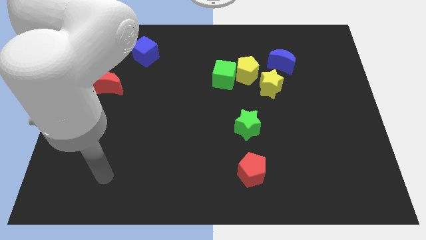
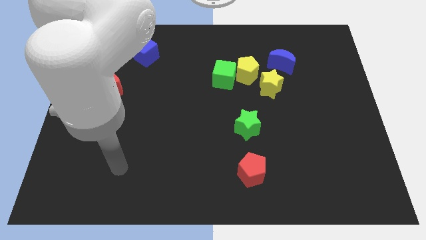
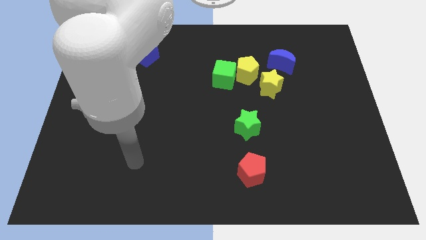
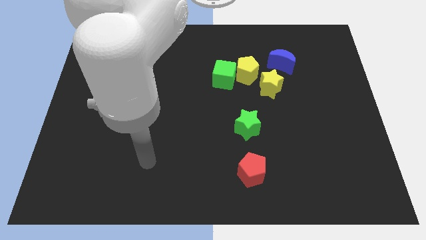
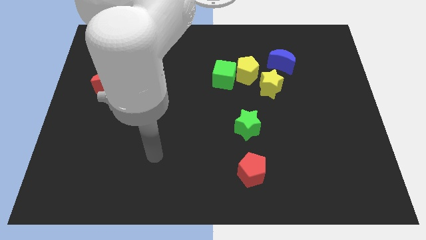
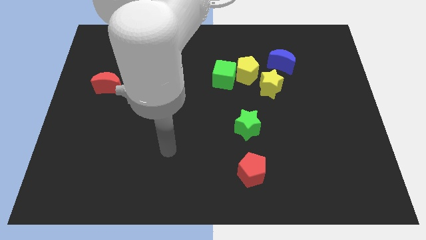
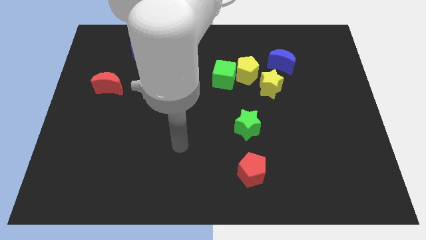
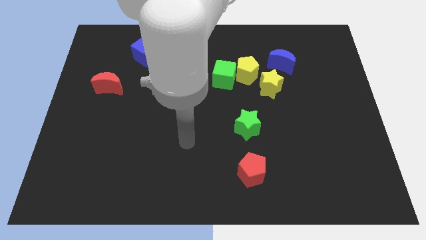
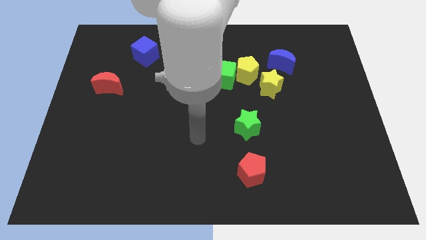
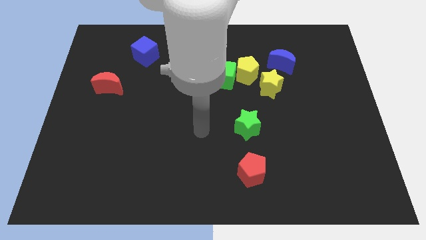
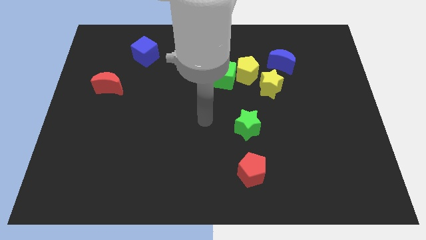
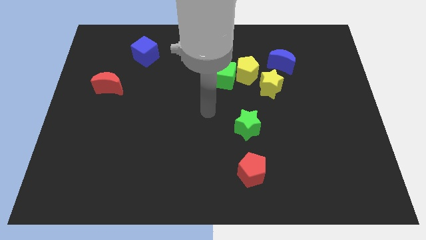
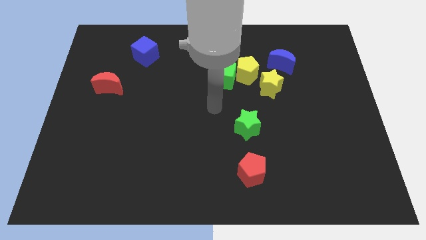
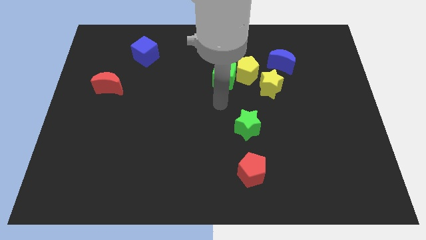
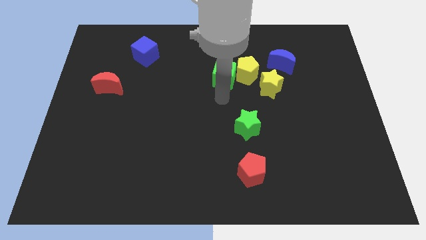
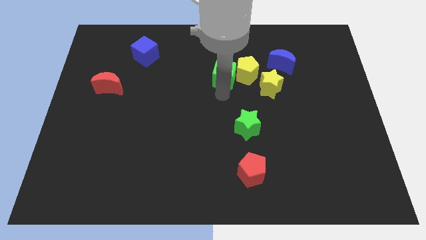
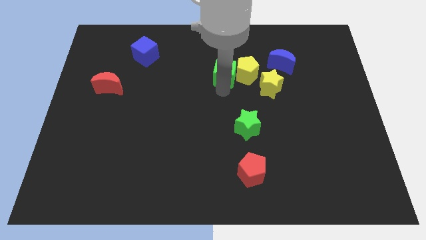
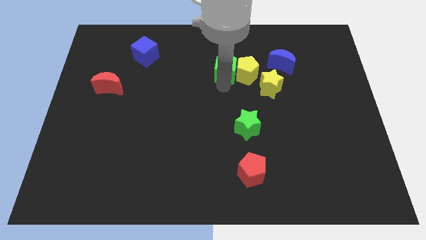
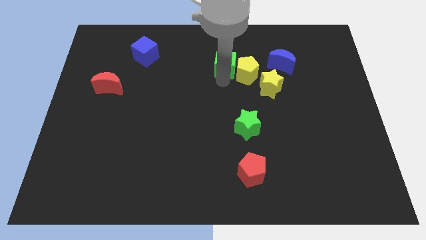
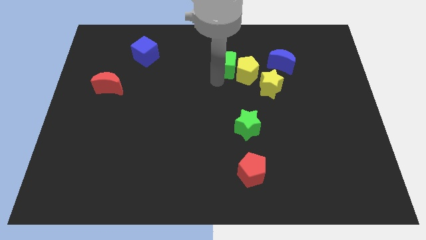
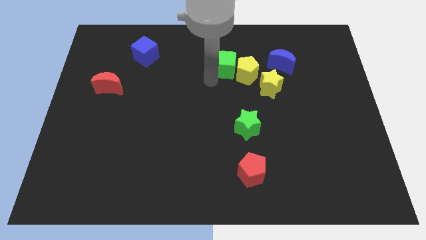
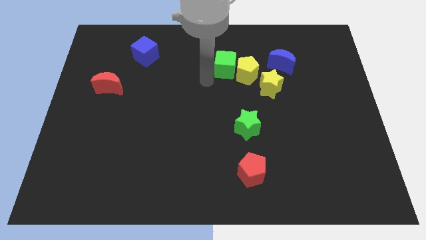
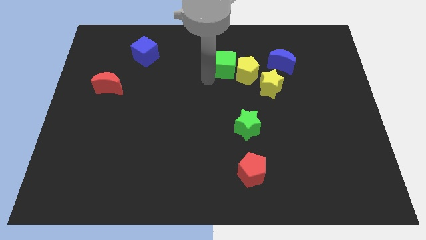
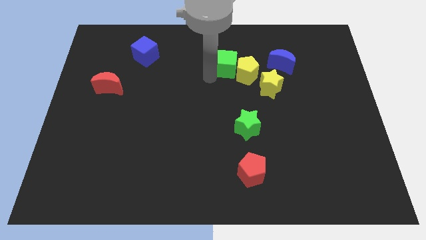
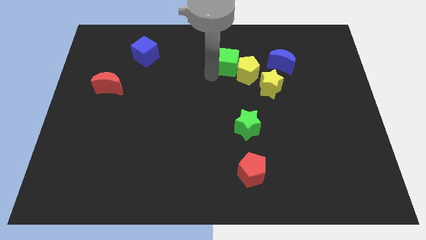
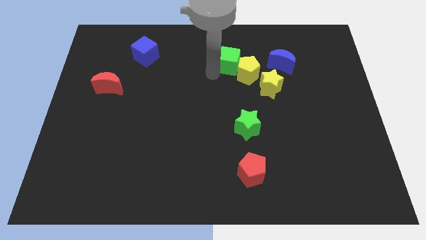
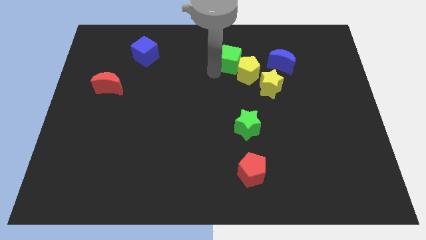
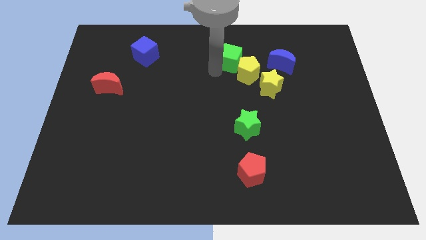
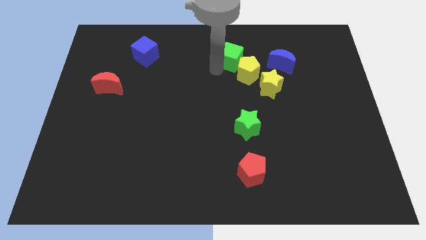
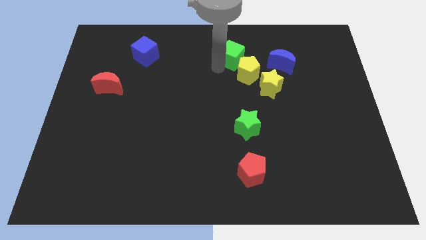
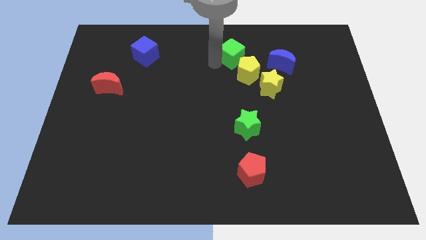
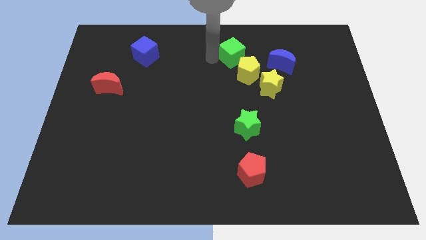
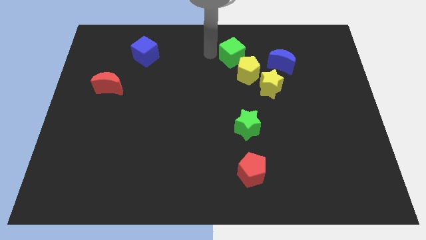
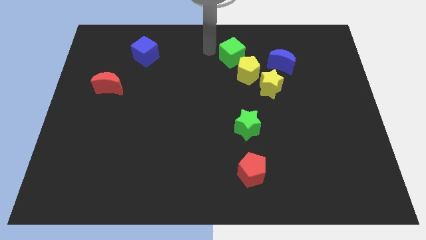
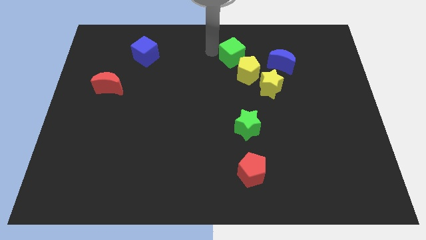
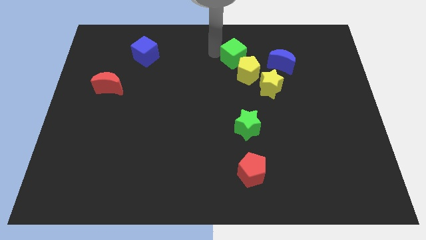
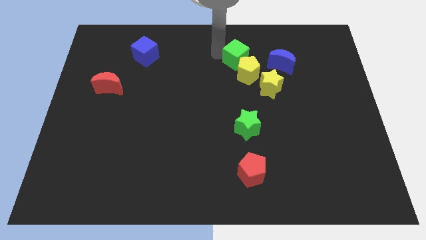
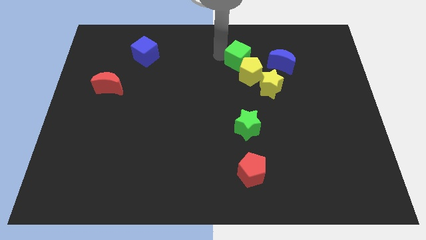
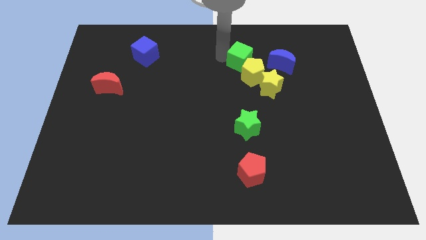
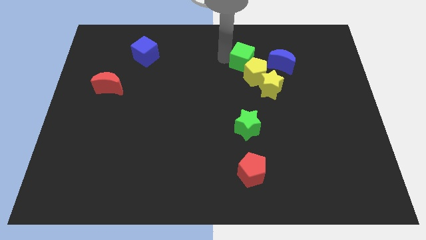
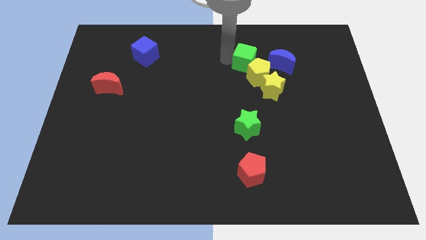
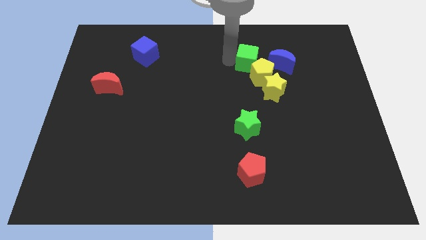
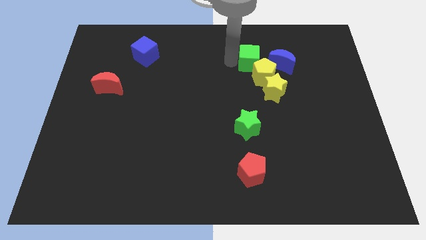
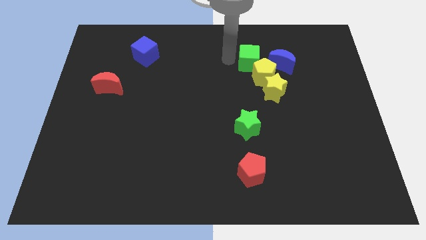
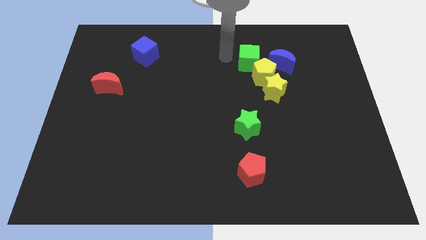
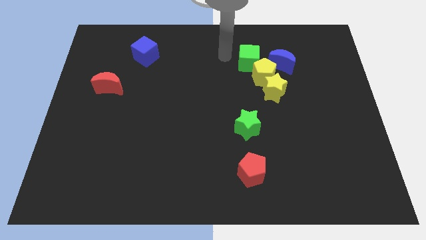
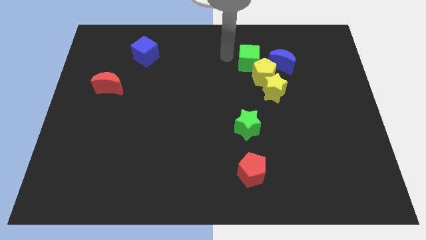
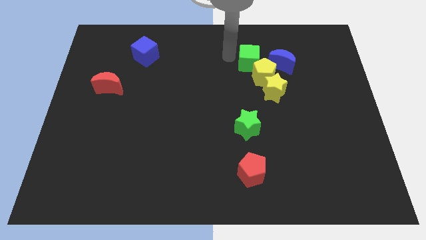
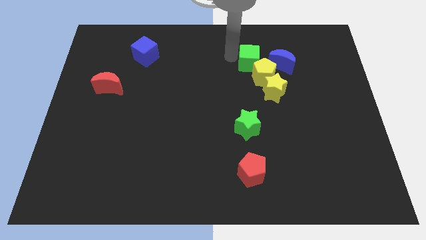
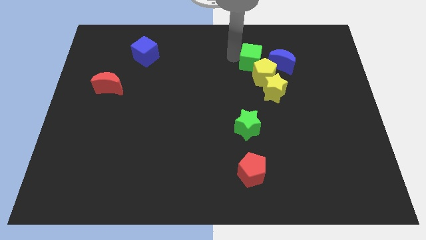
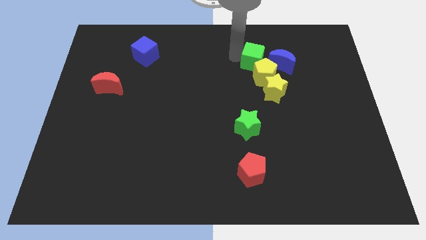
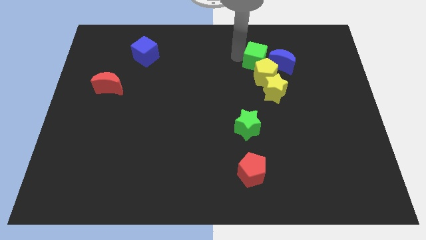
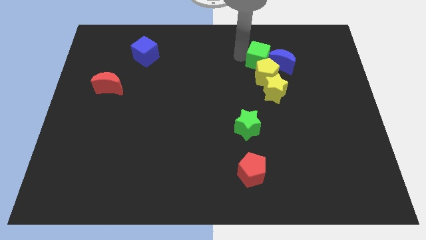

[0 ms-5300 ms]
slightly slide the green cube to the right

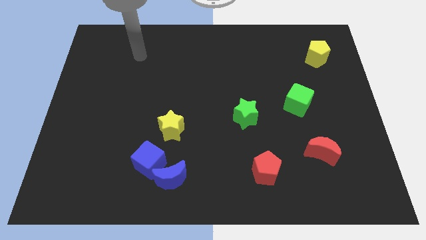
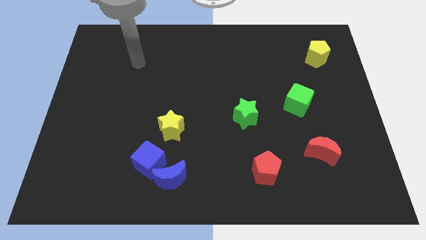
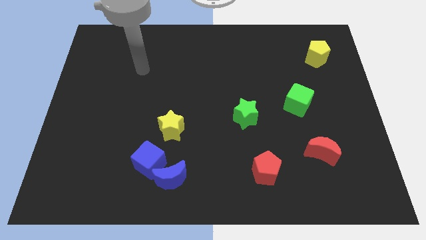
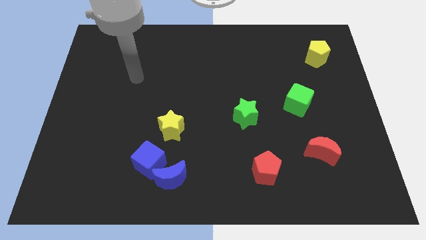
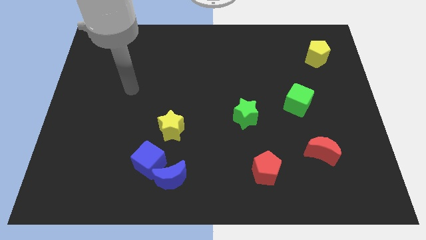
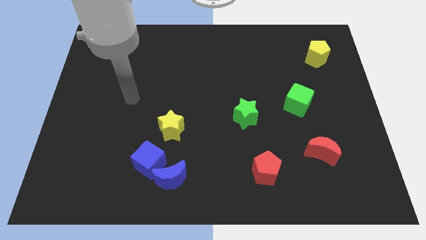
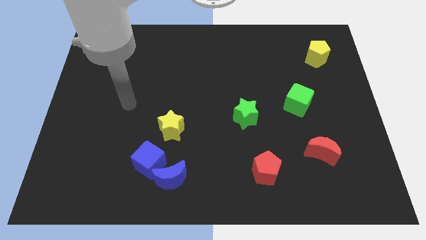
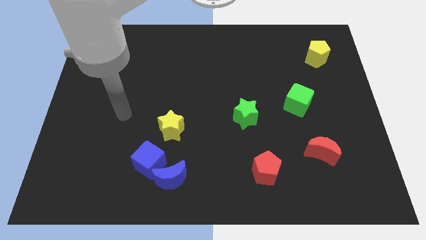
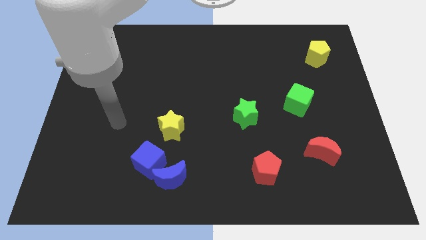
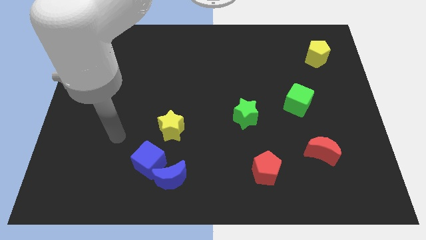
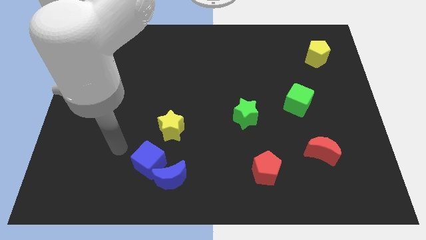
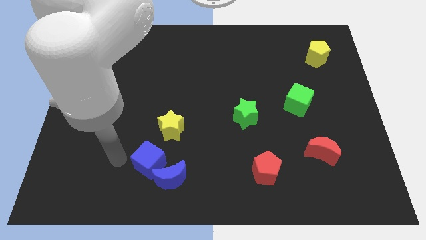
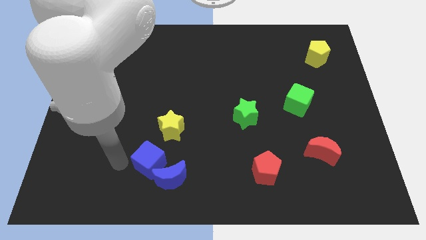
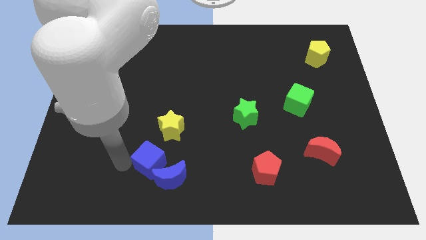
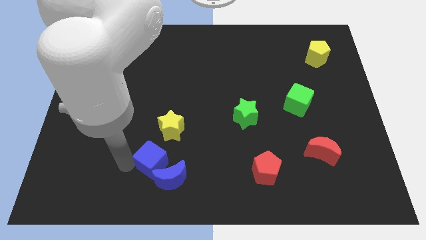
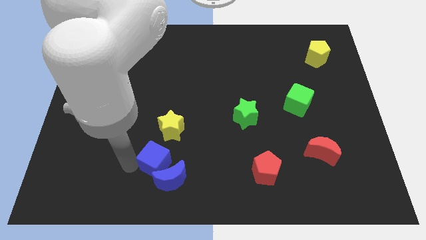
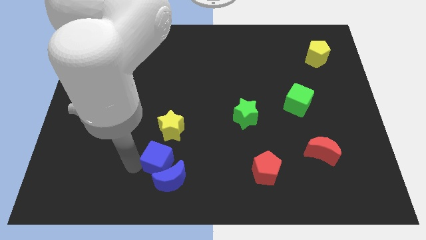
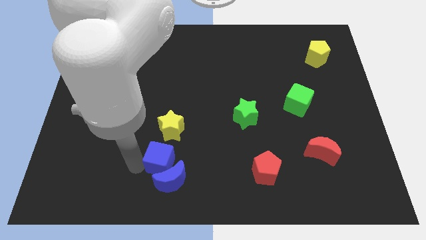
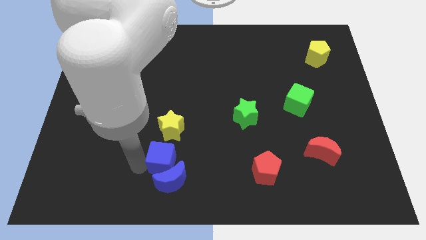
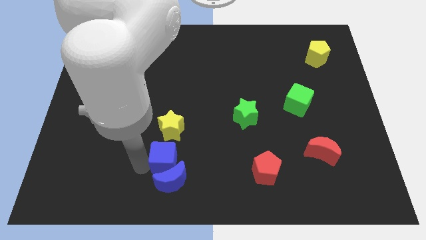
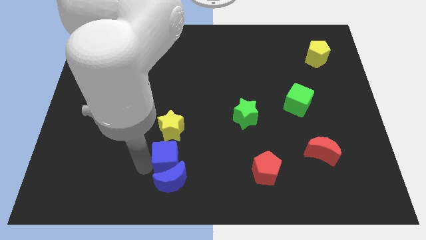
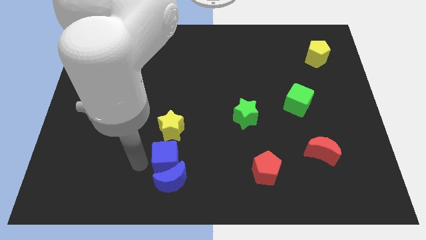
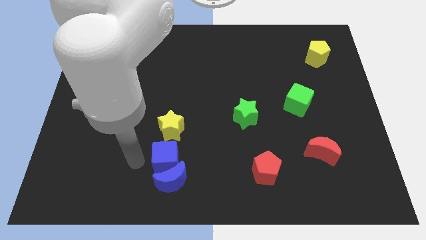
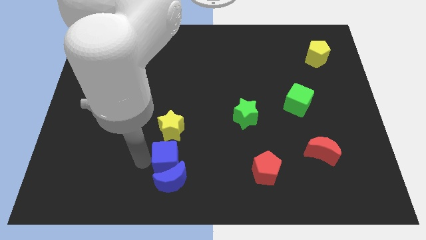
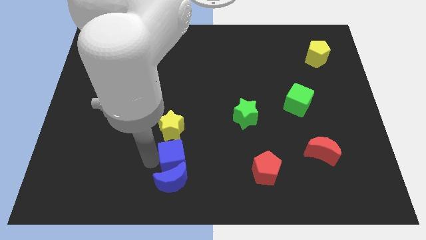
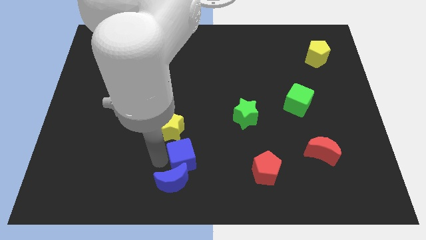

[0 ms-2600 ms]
slide the blue cube right a little bit

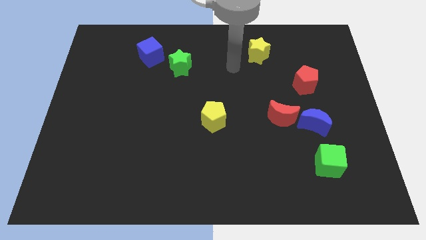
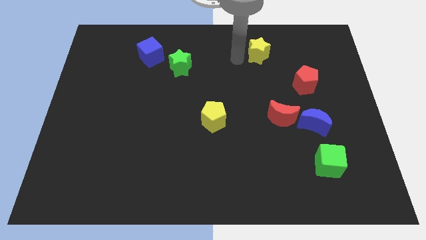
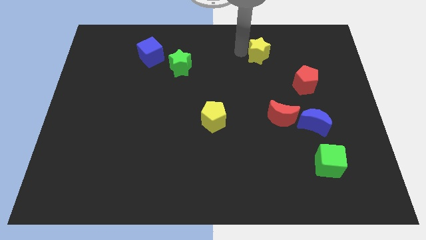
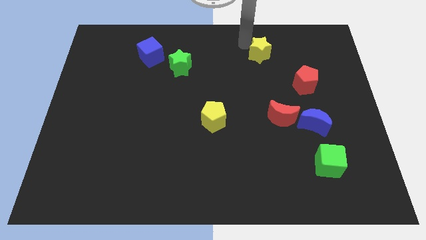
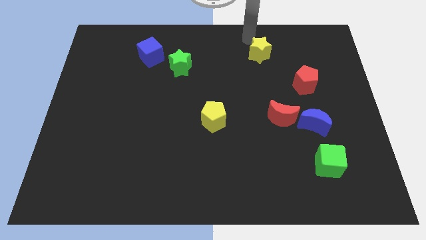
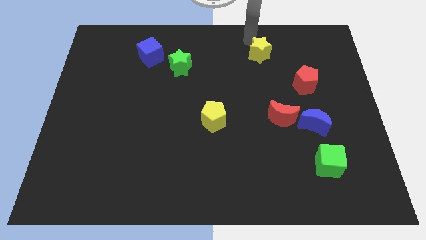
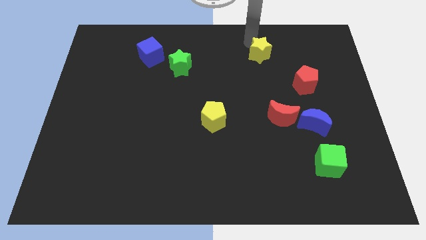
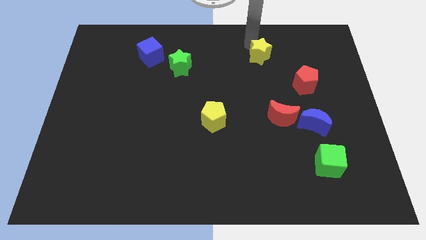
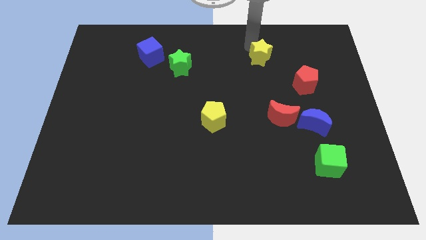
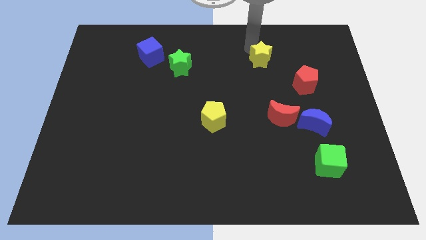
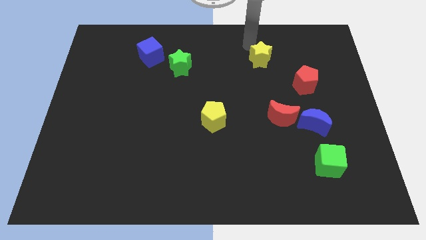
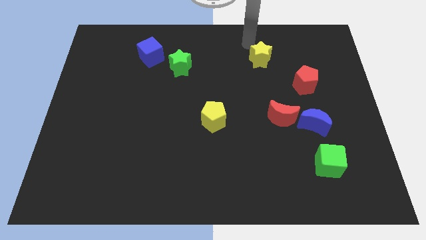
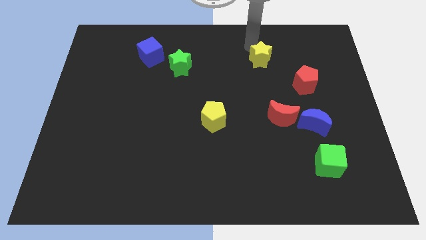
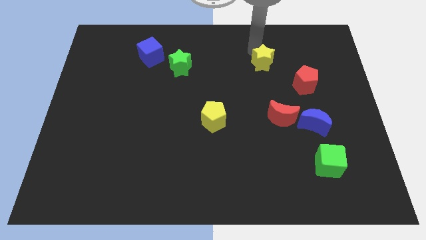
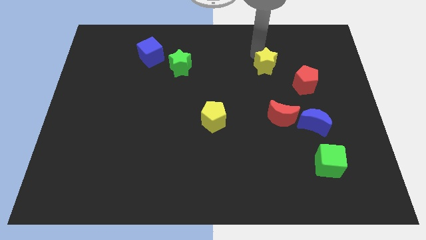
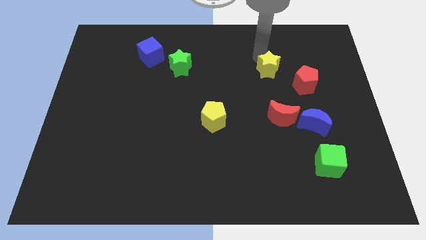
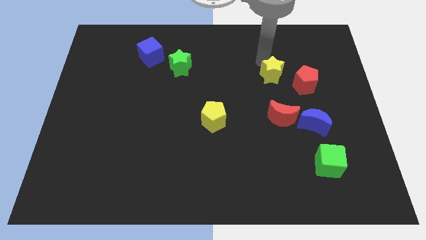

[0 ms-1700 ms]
slightly move the yellow star down and to the right
